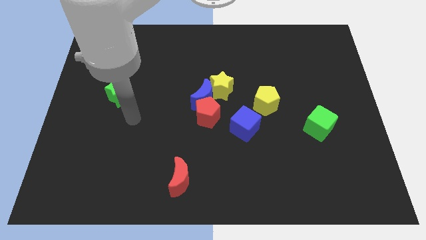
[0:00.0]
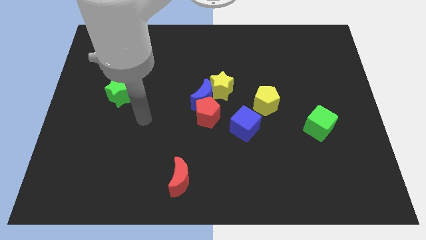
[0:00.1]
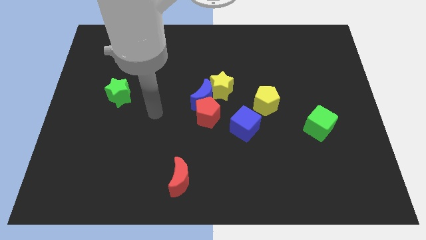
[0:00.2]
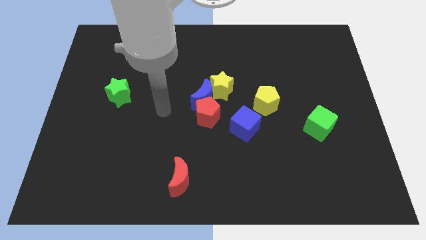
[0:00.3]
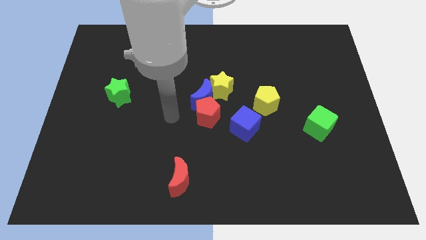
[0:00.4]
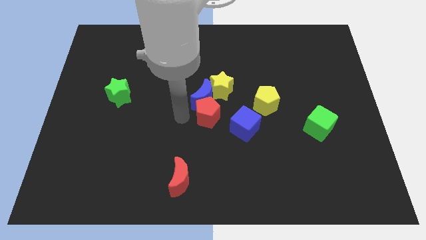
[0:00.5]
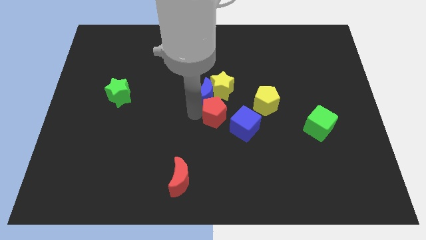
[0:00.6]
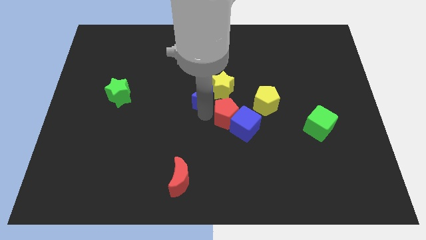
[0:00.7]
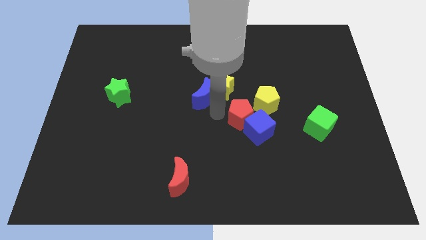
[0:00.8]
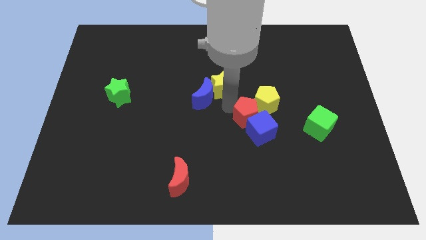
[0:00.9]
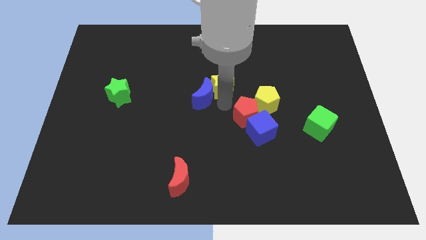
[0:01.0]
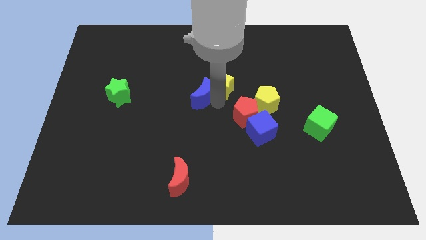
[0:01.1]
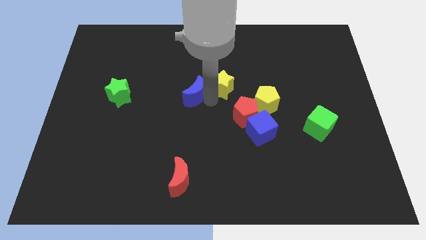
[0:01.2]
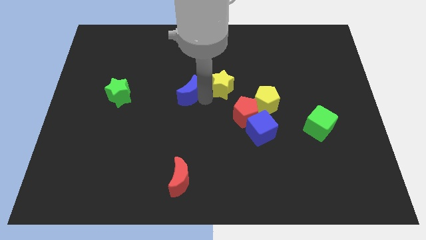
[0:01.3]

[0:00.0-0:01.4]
pull the blue moon apart from the red pentagon and yellow star

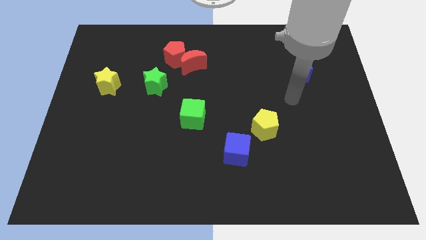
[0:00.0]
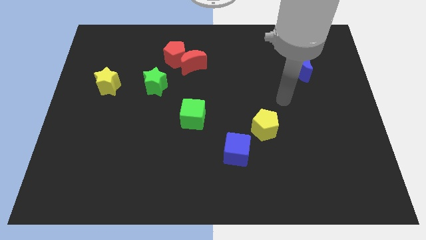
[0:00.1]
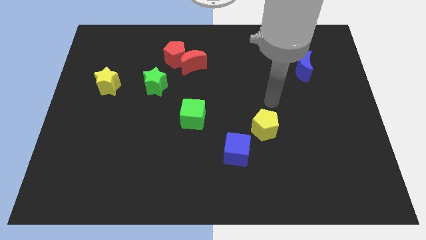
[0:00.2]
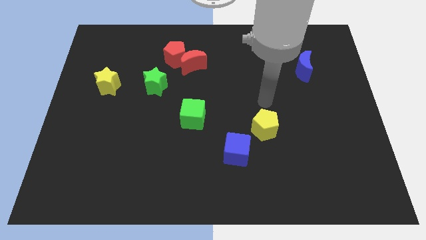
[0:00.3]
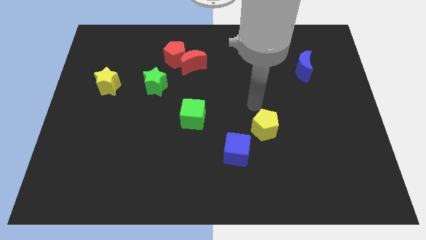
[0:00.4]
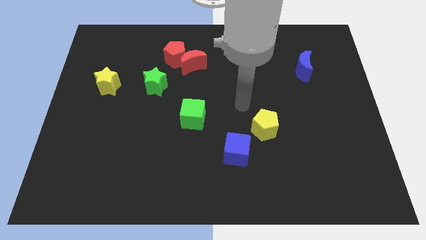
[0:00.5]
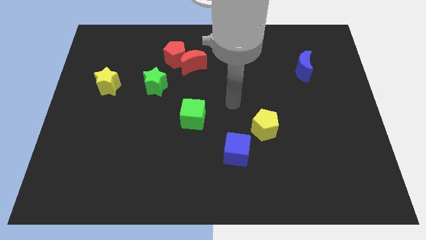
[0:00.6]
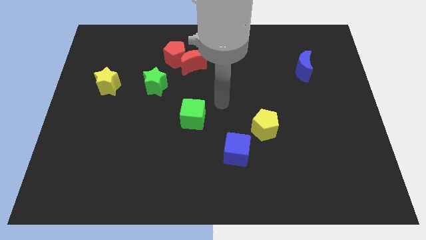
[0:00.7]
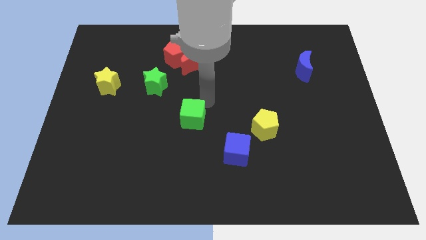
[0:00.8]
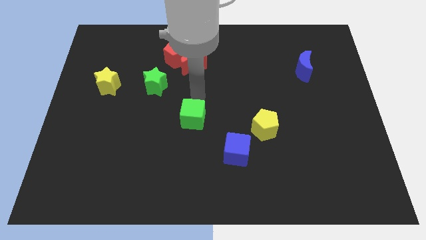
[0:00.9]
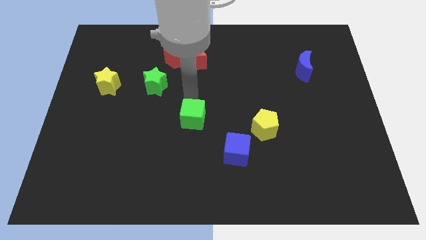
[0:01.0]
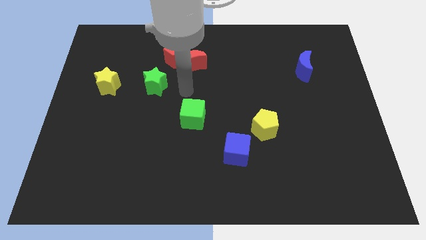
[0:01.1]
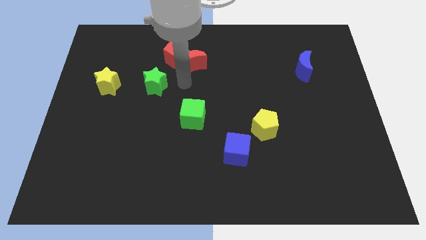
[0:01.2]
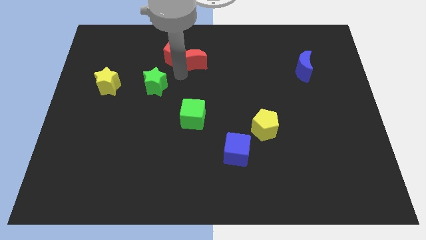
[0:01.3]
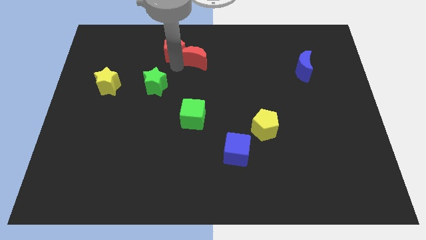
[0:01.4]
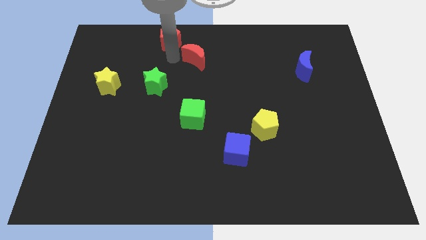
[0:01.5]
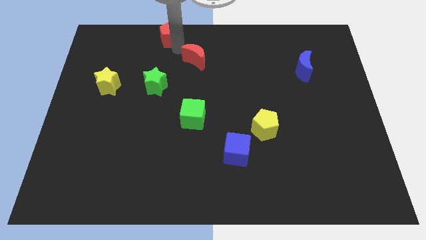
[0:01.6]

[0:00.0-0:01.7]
move the red moon away from the red pentagon

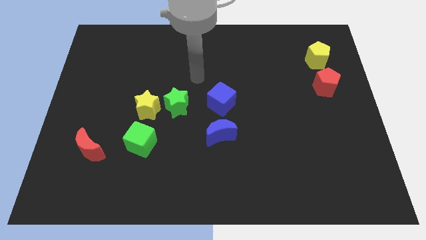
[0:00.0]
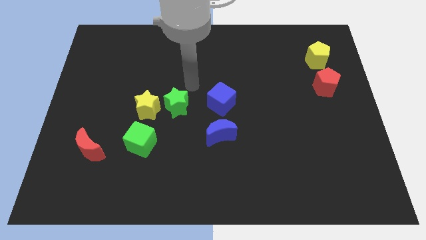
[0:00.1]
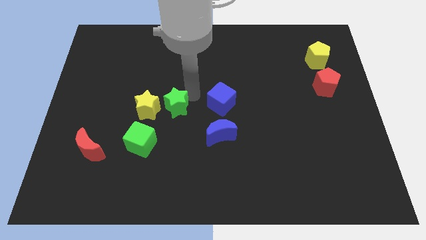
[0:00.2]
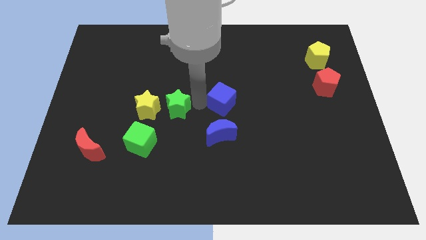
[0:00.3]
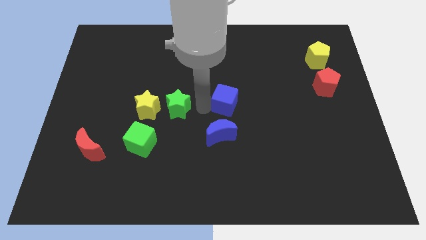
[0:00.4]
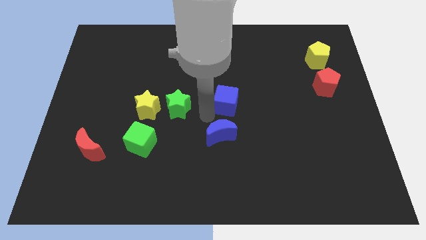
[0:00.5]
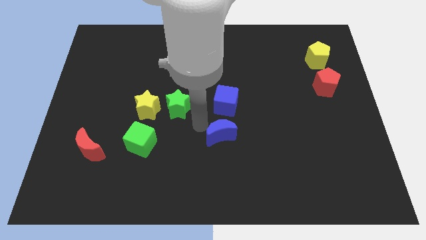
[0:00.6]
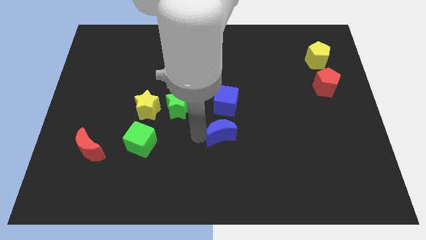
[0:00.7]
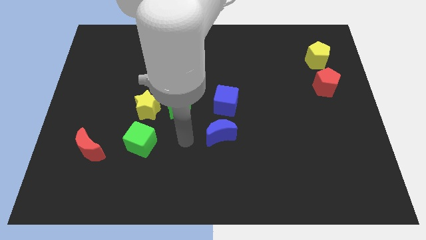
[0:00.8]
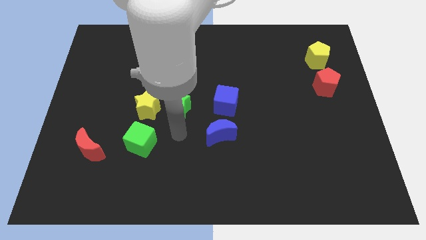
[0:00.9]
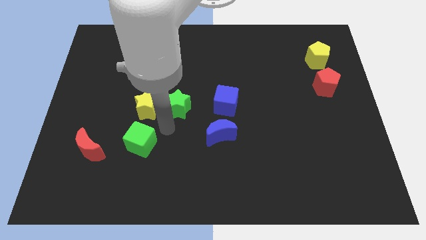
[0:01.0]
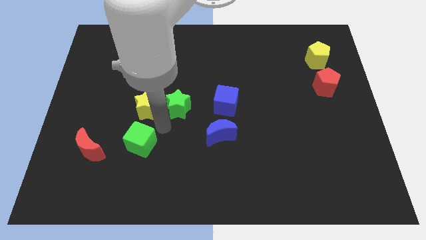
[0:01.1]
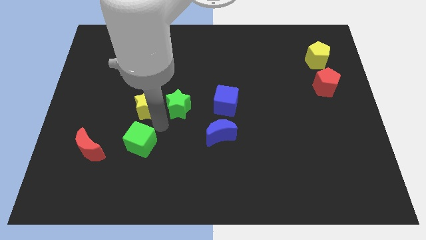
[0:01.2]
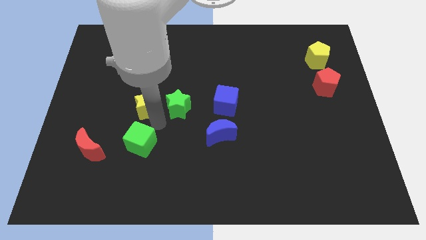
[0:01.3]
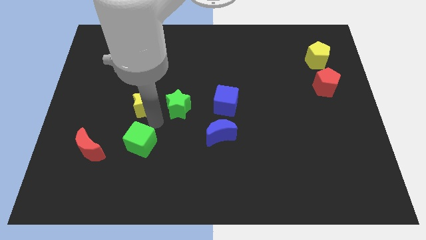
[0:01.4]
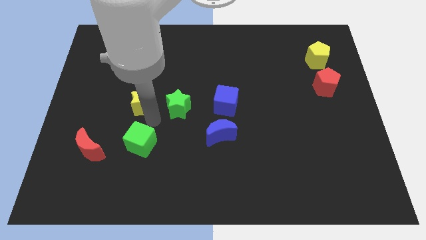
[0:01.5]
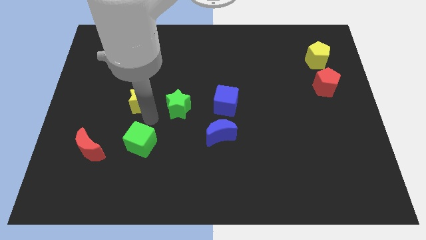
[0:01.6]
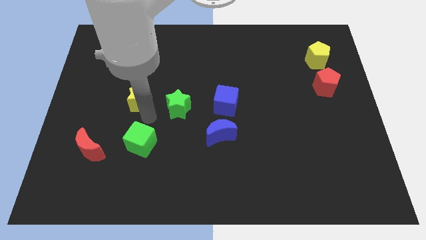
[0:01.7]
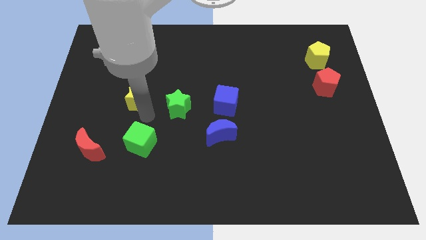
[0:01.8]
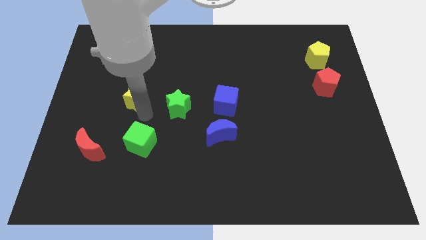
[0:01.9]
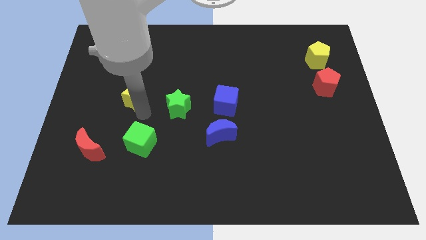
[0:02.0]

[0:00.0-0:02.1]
separate the yellow star from the green star and green cube

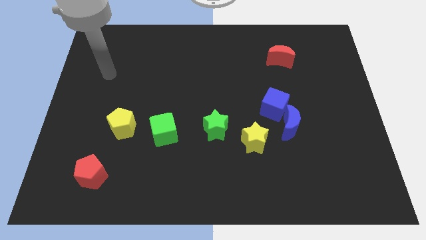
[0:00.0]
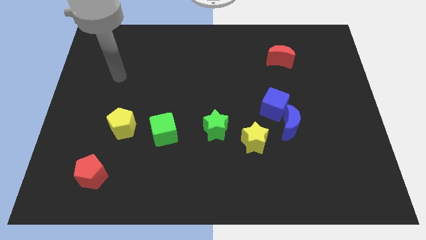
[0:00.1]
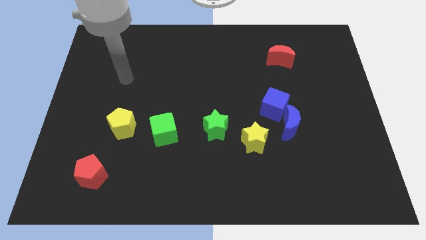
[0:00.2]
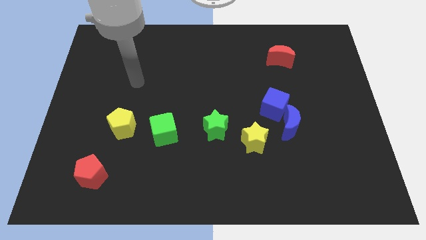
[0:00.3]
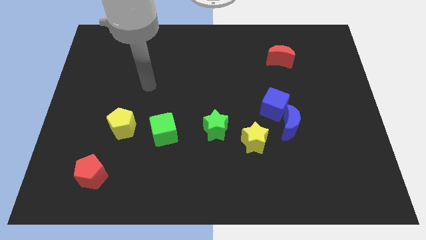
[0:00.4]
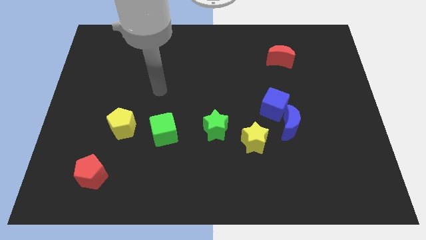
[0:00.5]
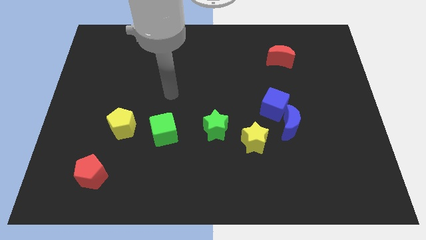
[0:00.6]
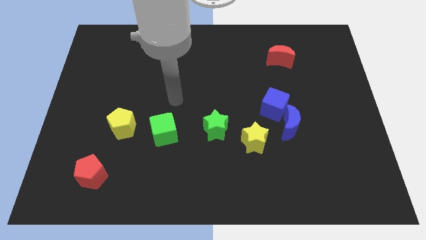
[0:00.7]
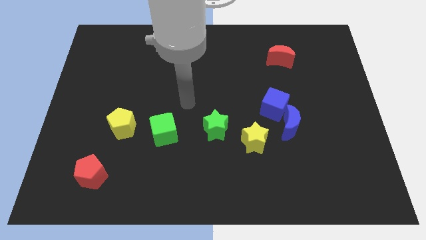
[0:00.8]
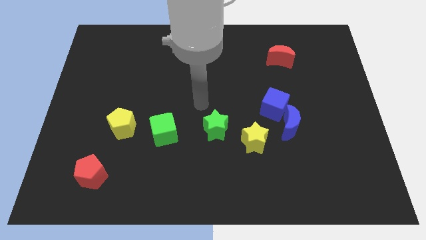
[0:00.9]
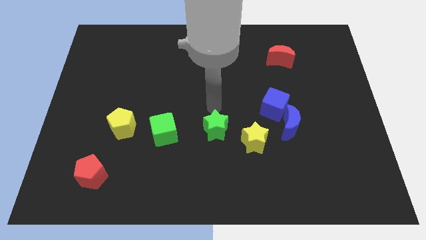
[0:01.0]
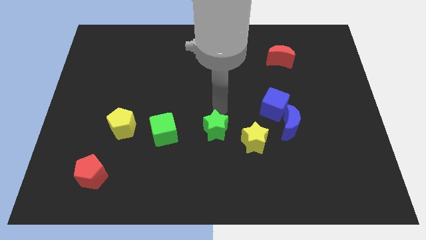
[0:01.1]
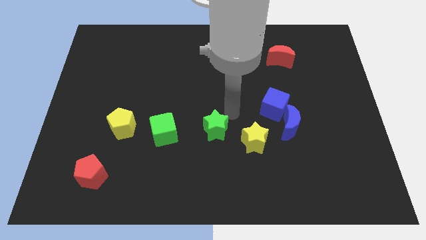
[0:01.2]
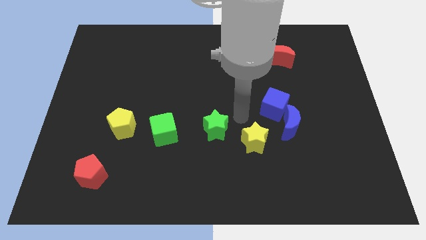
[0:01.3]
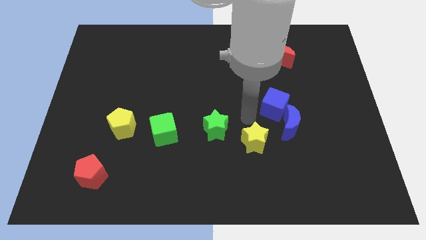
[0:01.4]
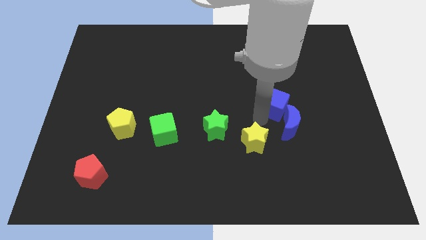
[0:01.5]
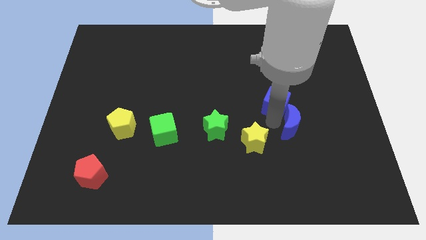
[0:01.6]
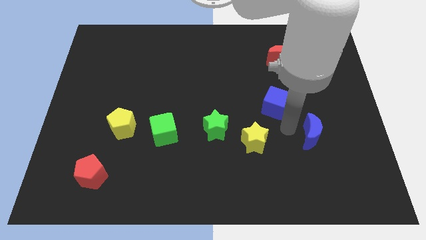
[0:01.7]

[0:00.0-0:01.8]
separate the blue cube from the blue moon

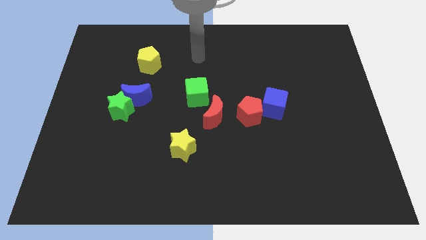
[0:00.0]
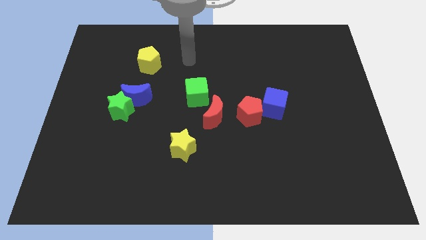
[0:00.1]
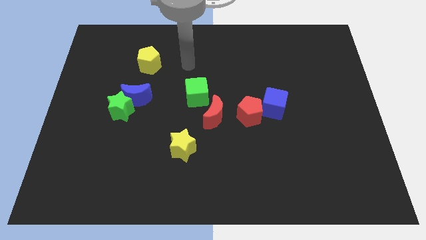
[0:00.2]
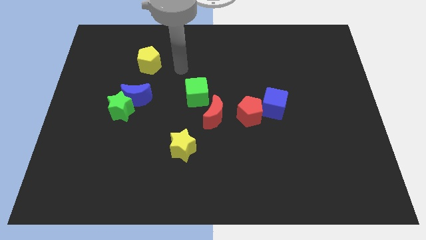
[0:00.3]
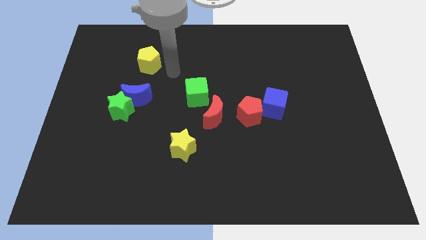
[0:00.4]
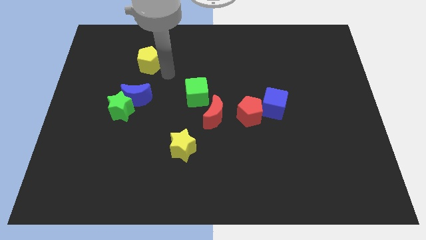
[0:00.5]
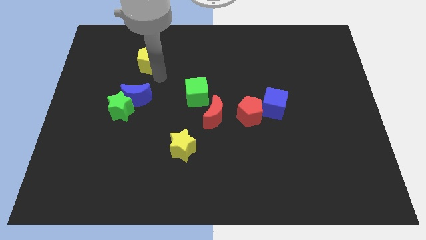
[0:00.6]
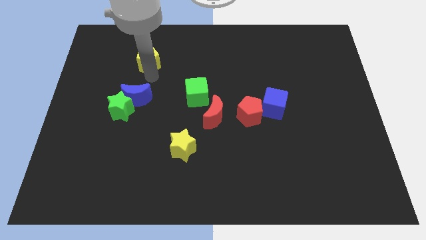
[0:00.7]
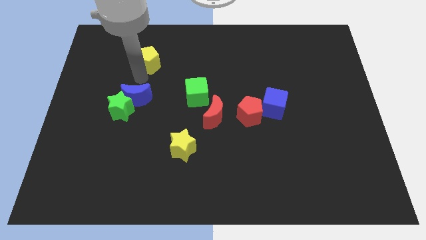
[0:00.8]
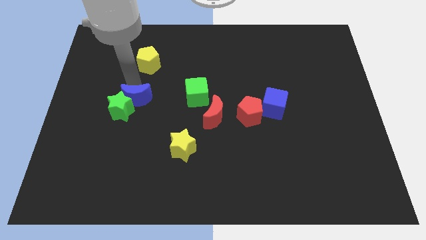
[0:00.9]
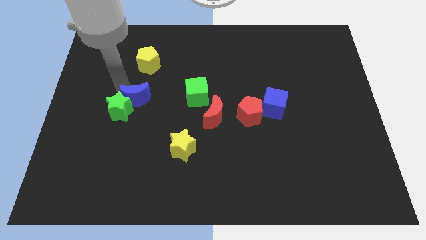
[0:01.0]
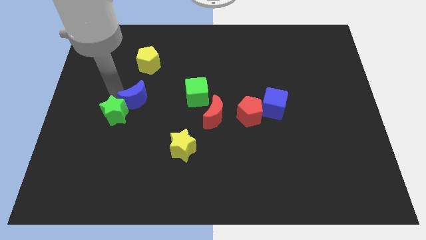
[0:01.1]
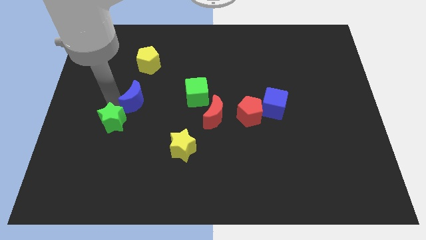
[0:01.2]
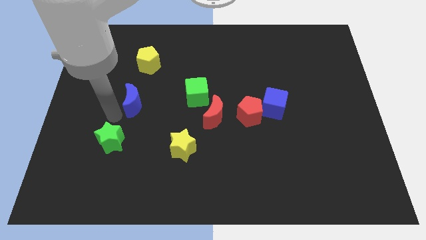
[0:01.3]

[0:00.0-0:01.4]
move the blue moon away from the green star

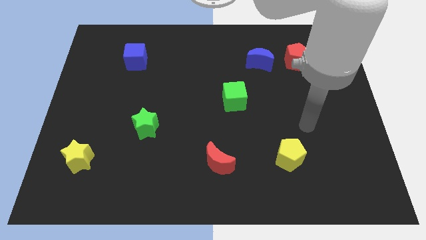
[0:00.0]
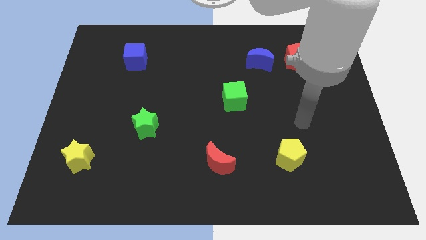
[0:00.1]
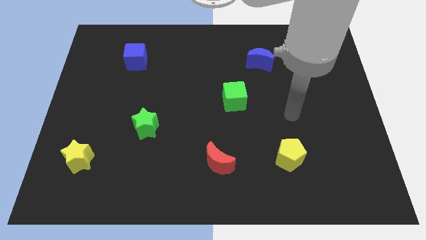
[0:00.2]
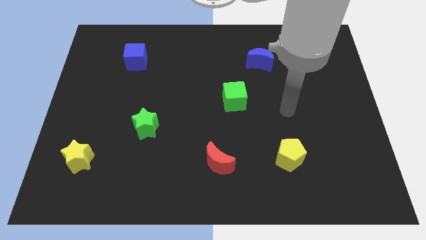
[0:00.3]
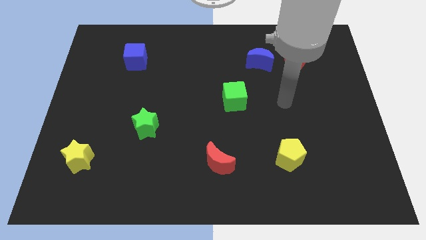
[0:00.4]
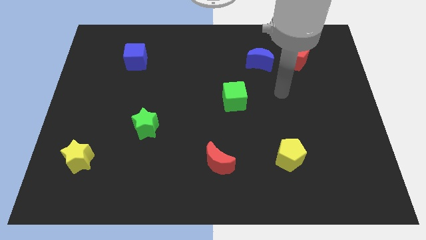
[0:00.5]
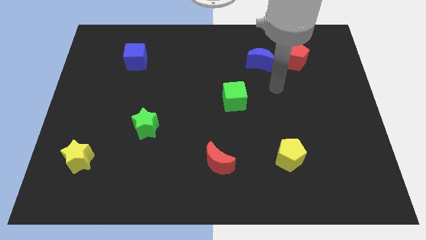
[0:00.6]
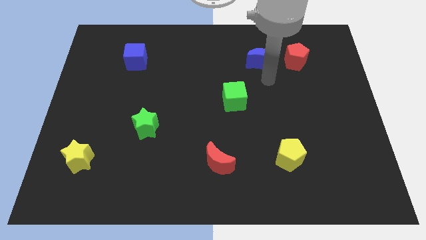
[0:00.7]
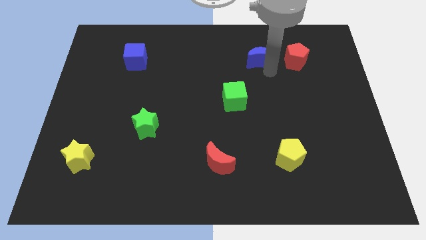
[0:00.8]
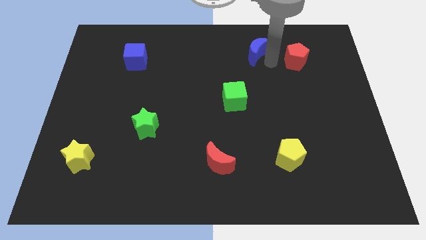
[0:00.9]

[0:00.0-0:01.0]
pull the red pentagon apart from the blue moon
